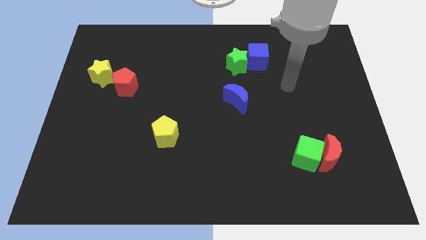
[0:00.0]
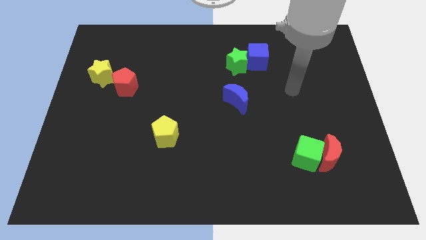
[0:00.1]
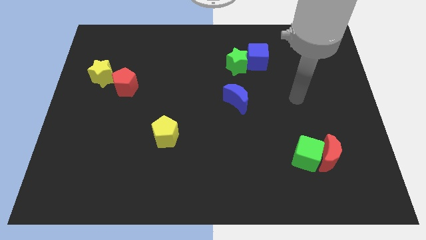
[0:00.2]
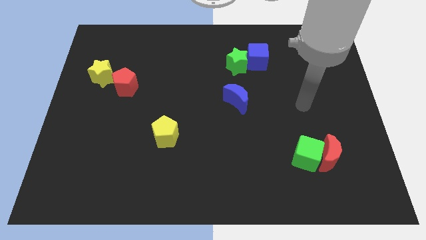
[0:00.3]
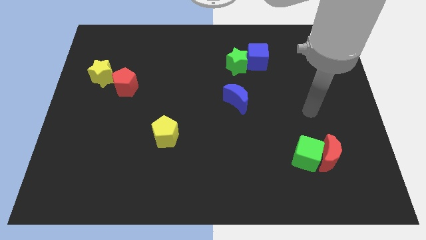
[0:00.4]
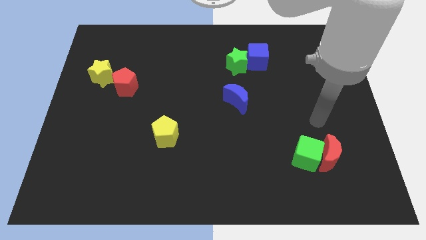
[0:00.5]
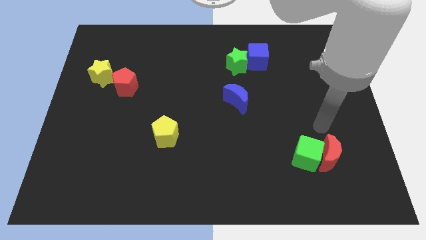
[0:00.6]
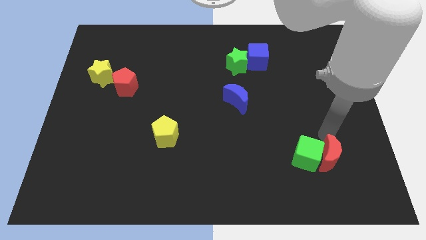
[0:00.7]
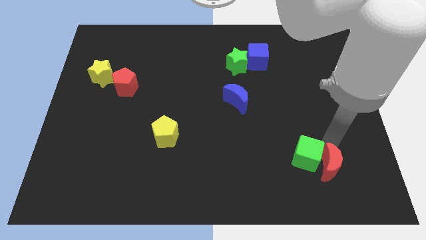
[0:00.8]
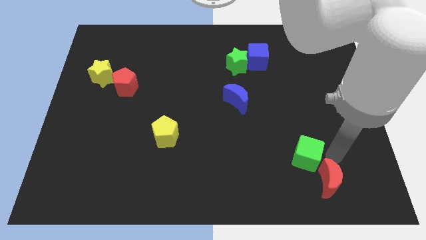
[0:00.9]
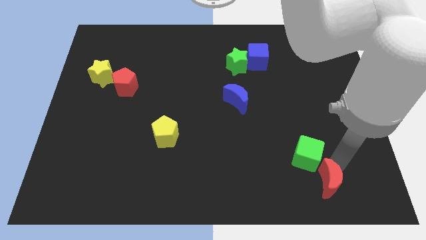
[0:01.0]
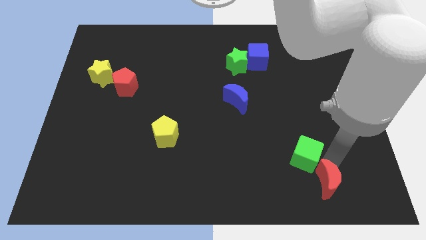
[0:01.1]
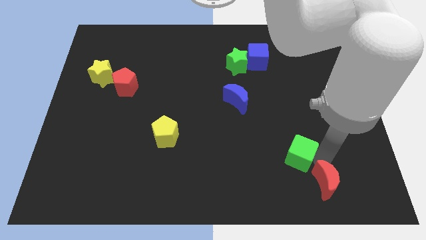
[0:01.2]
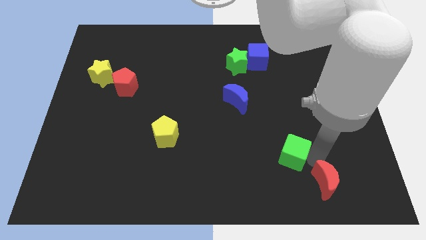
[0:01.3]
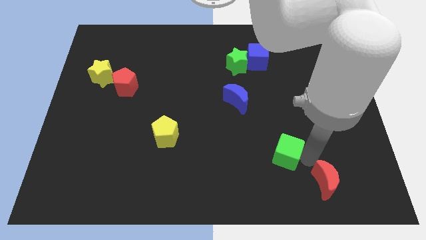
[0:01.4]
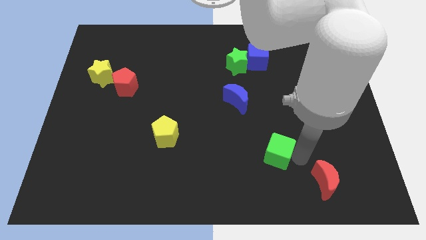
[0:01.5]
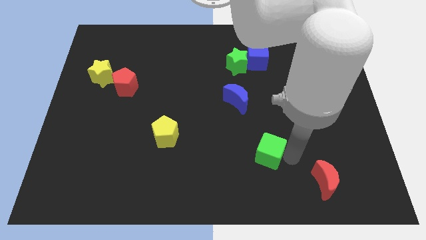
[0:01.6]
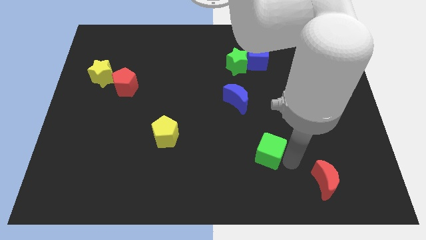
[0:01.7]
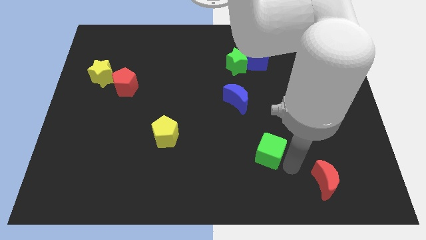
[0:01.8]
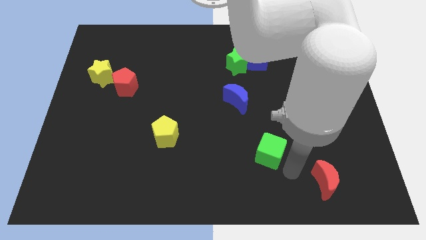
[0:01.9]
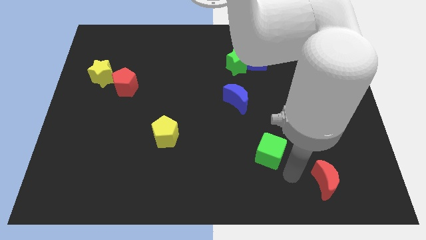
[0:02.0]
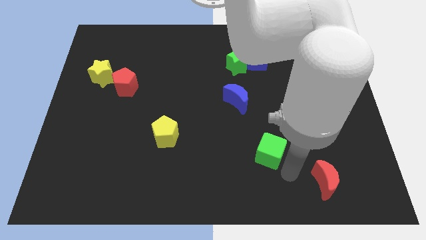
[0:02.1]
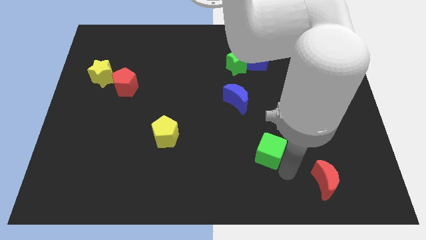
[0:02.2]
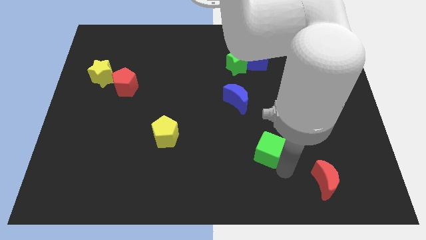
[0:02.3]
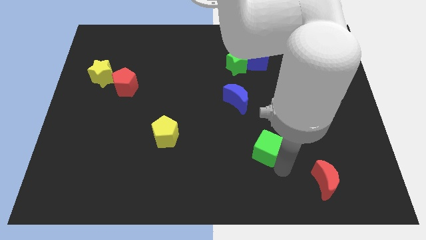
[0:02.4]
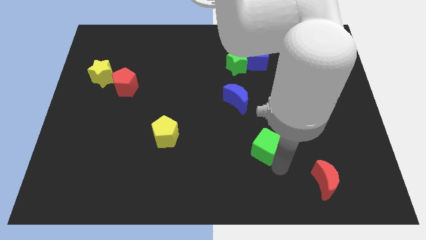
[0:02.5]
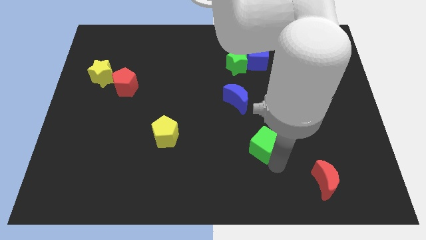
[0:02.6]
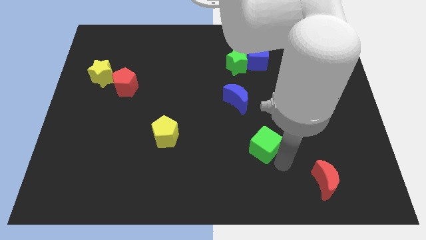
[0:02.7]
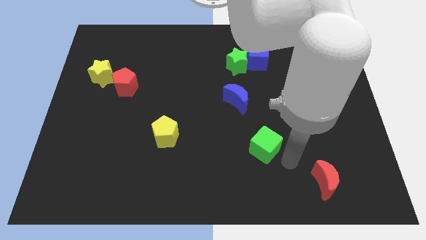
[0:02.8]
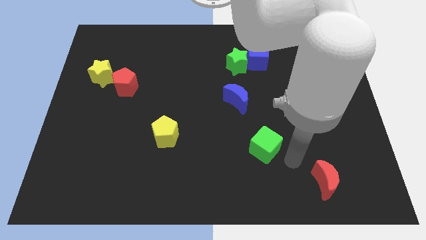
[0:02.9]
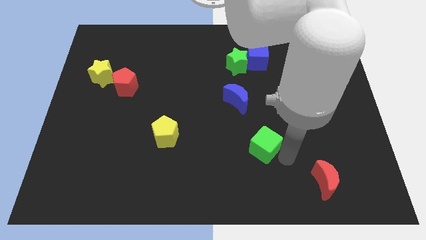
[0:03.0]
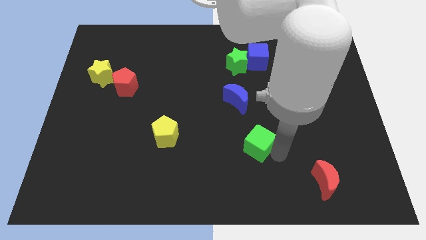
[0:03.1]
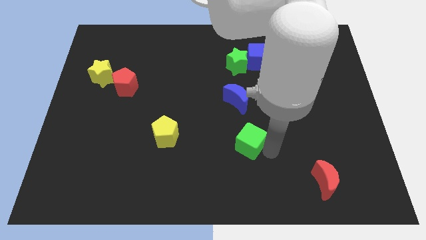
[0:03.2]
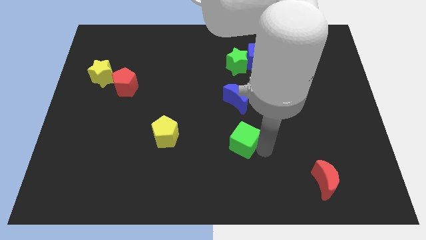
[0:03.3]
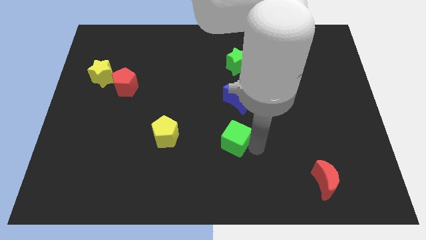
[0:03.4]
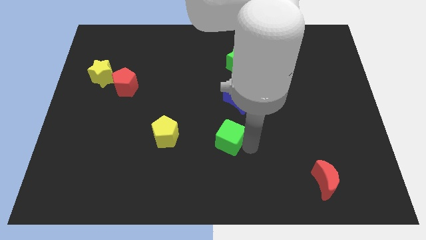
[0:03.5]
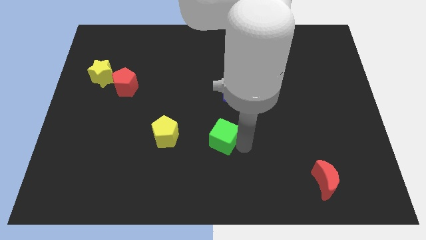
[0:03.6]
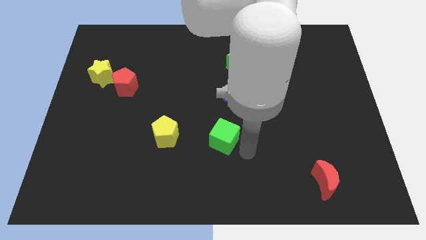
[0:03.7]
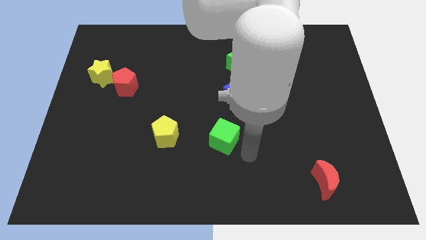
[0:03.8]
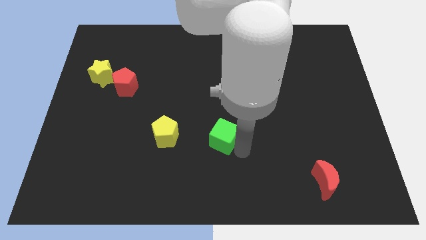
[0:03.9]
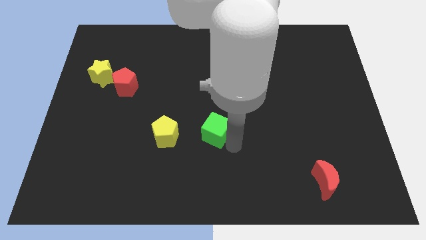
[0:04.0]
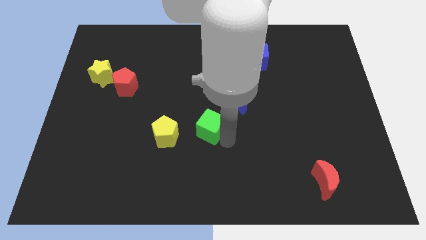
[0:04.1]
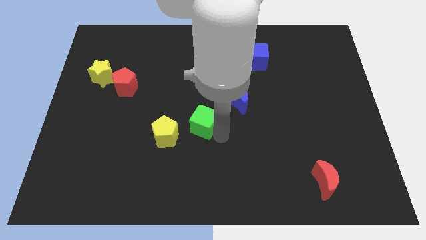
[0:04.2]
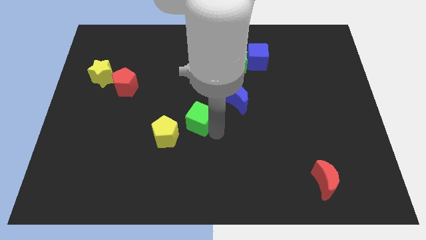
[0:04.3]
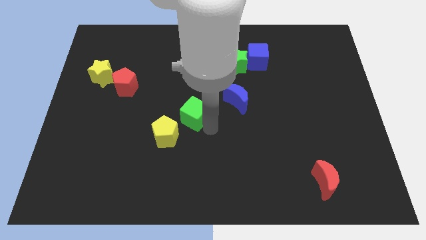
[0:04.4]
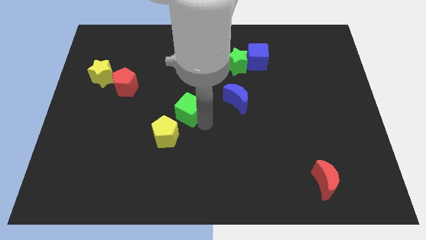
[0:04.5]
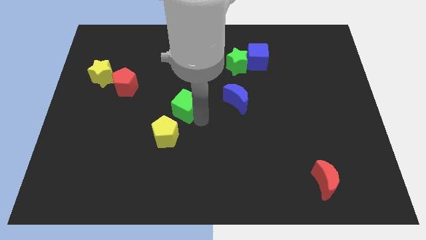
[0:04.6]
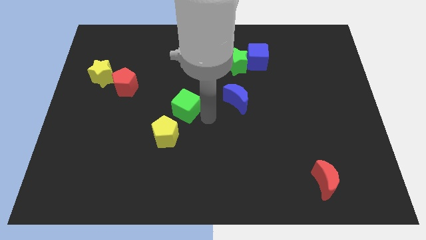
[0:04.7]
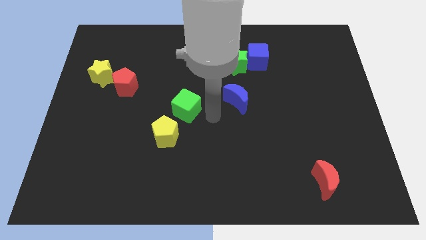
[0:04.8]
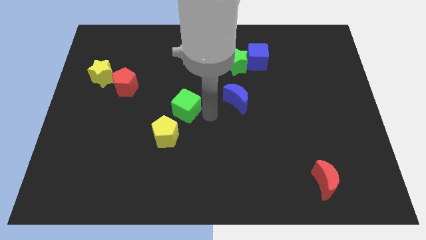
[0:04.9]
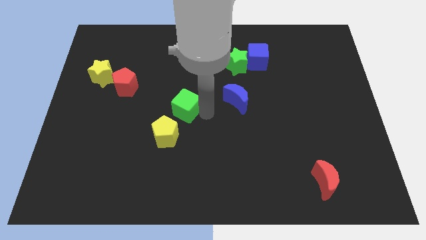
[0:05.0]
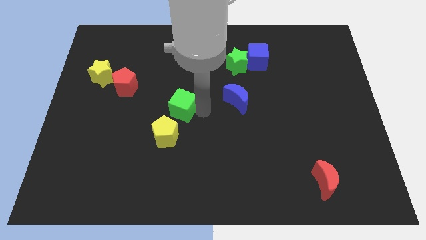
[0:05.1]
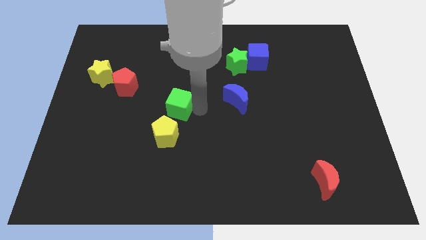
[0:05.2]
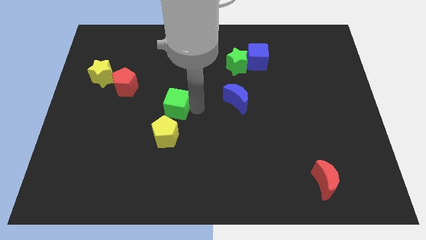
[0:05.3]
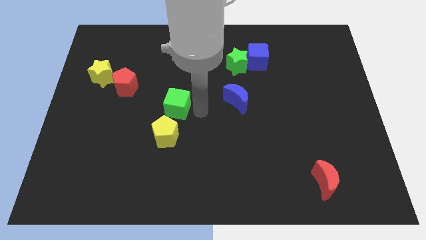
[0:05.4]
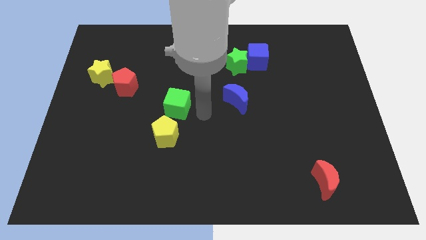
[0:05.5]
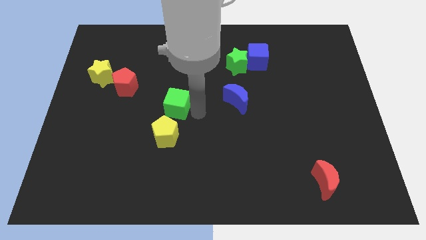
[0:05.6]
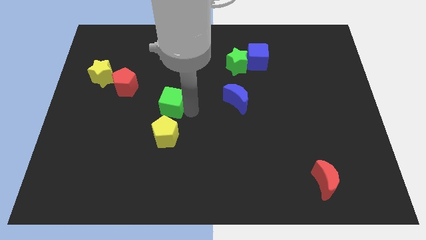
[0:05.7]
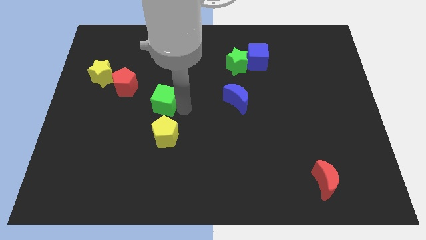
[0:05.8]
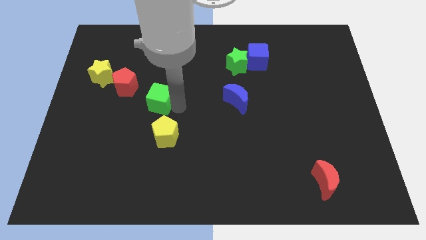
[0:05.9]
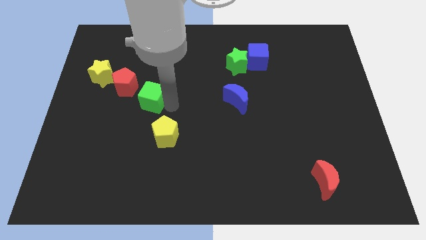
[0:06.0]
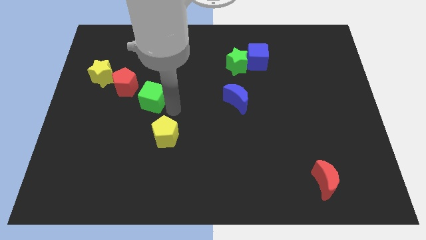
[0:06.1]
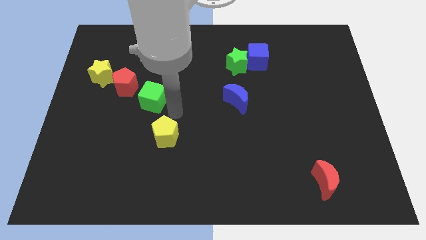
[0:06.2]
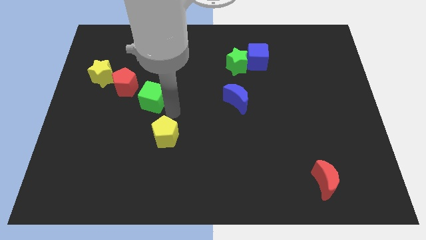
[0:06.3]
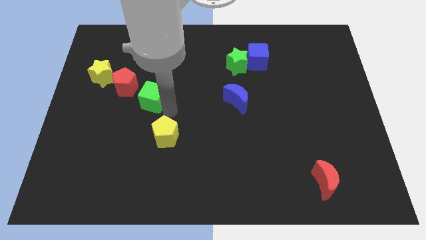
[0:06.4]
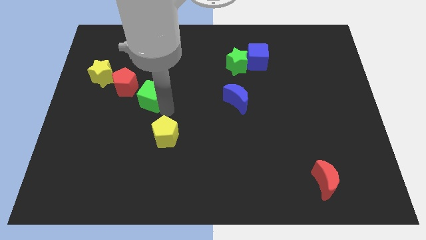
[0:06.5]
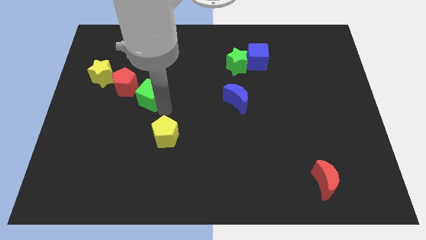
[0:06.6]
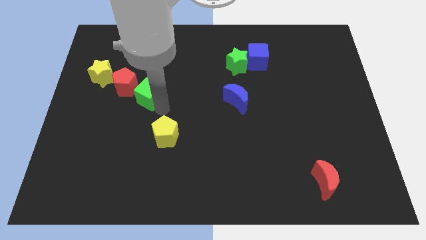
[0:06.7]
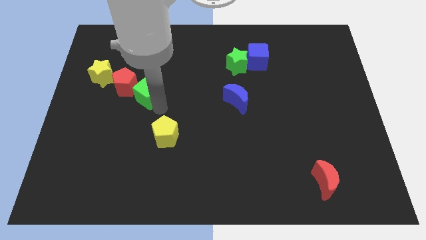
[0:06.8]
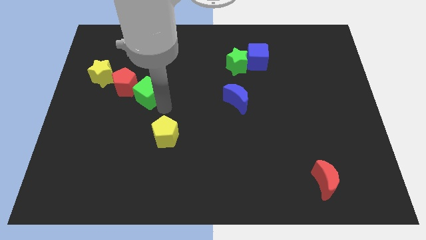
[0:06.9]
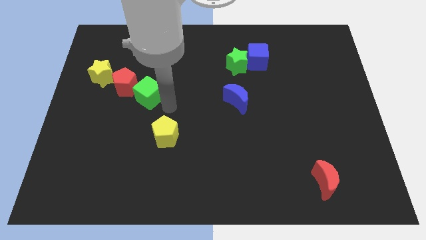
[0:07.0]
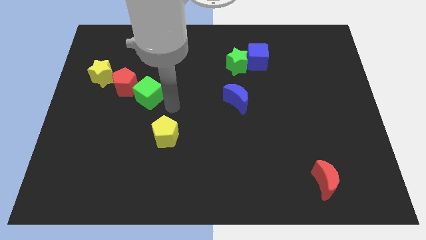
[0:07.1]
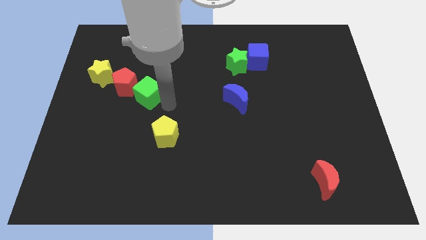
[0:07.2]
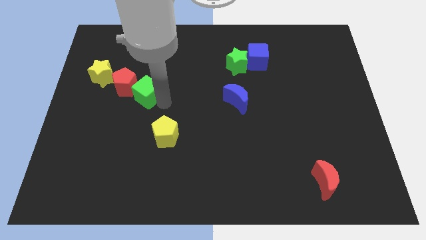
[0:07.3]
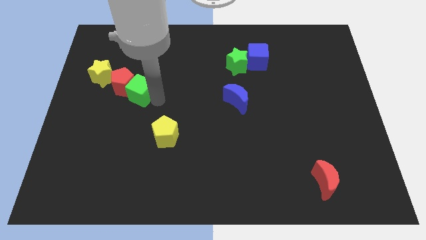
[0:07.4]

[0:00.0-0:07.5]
move the green cube next to the red pentagon

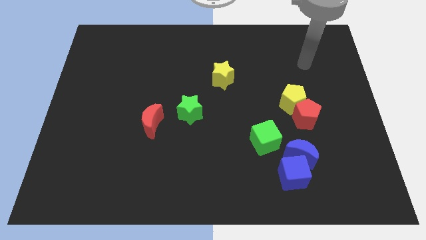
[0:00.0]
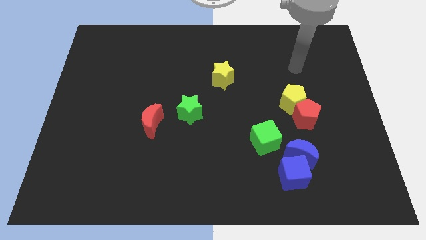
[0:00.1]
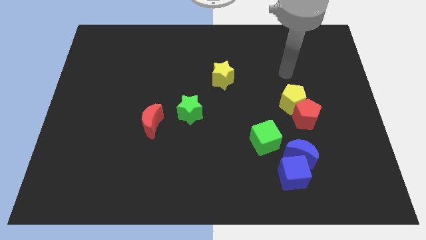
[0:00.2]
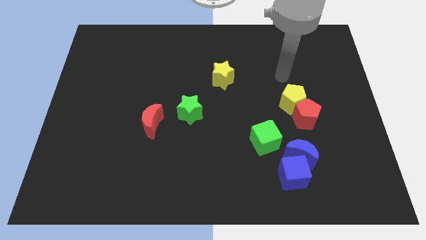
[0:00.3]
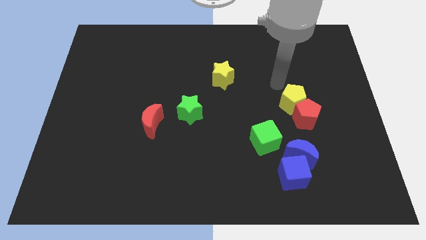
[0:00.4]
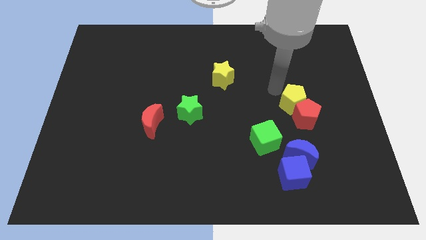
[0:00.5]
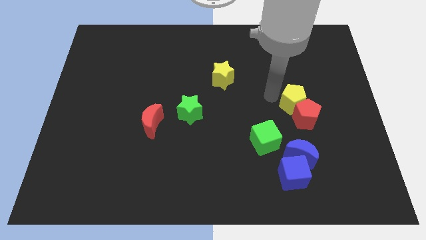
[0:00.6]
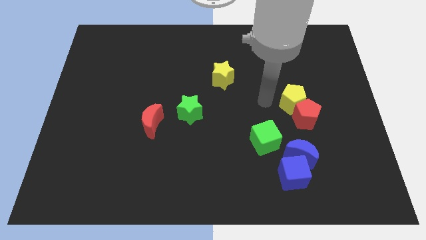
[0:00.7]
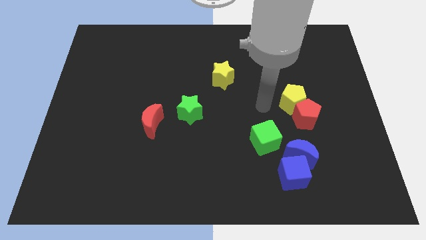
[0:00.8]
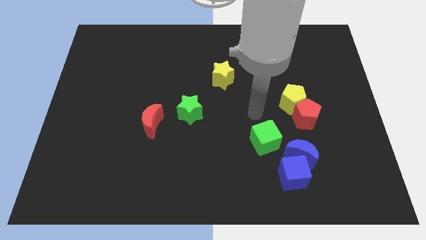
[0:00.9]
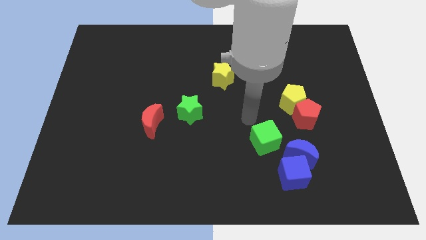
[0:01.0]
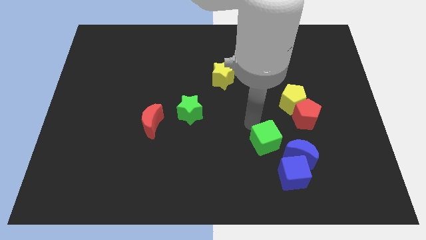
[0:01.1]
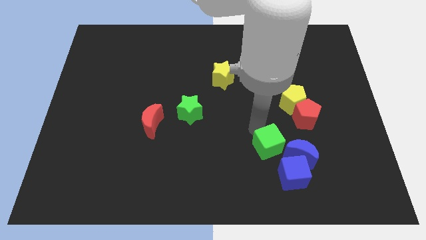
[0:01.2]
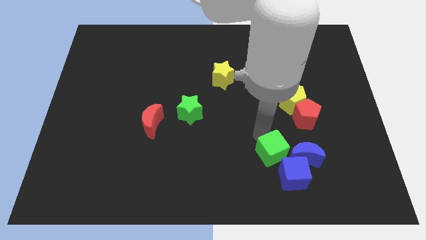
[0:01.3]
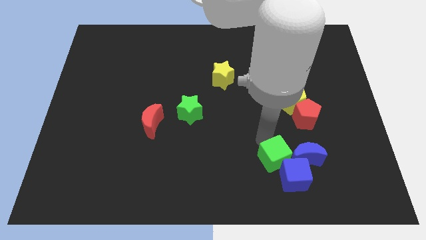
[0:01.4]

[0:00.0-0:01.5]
move the green cube towards the blue cube
